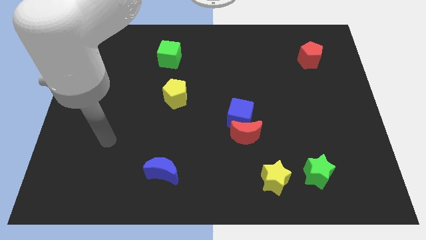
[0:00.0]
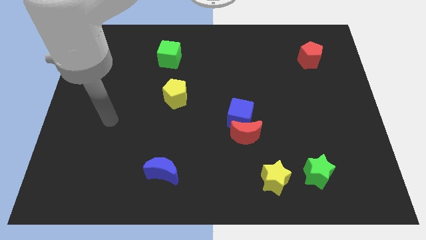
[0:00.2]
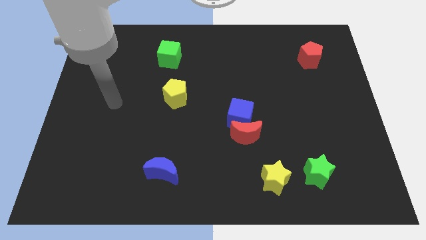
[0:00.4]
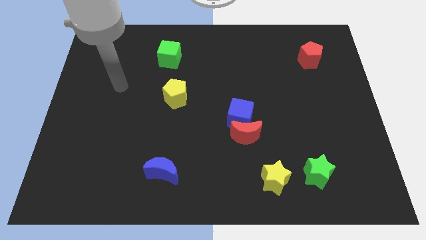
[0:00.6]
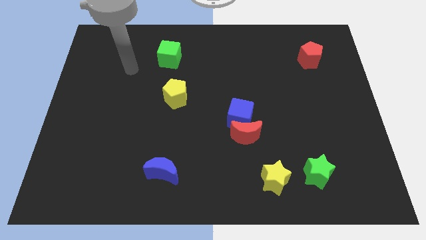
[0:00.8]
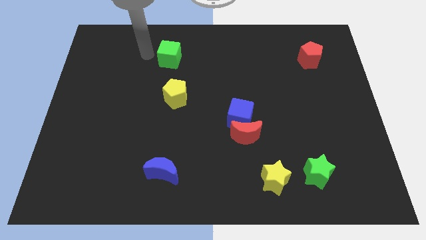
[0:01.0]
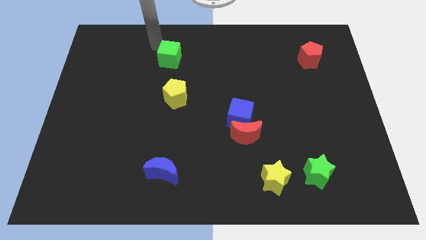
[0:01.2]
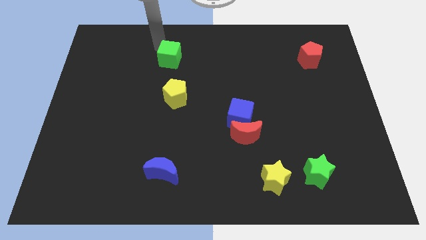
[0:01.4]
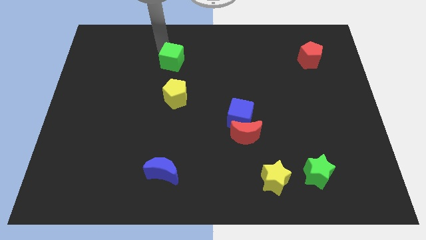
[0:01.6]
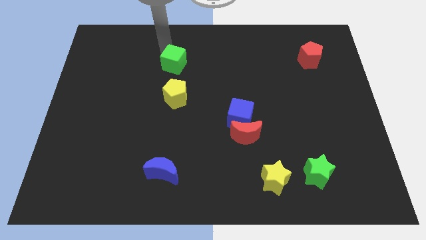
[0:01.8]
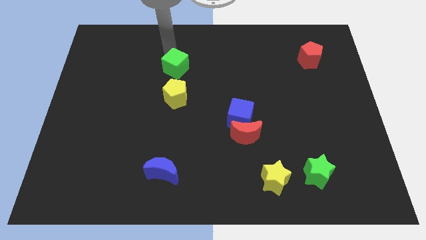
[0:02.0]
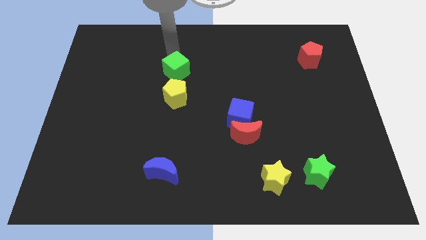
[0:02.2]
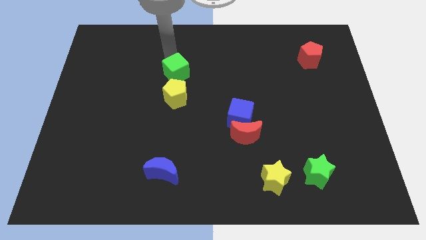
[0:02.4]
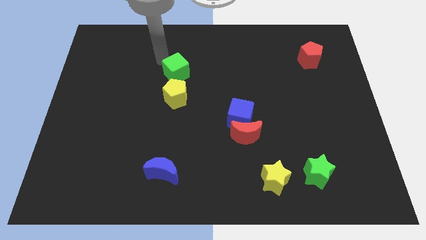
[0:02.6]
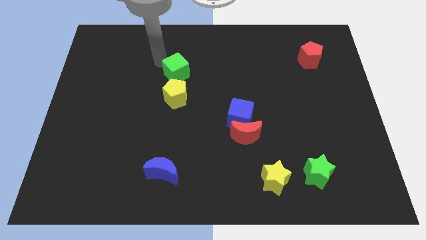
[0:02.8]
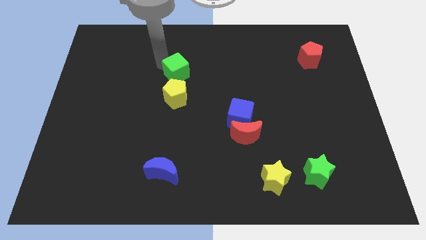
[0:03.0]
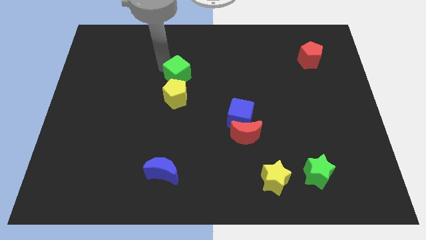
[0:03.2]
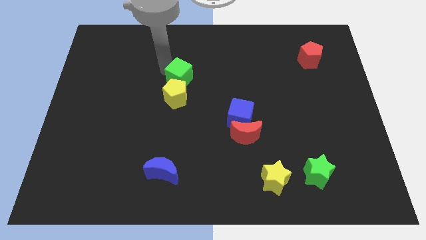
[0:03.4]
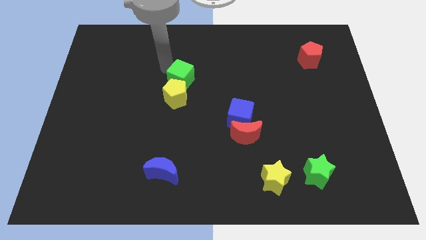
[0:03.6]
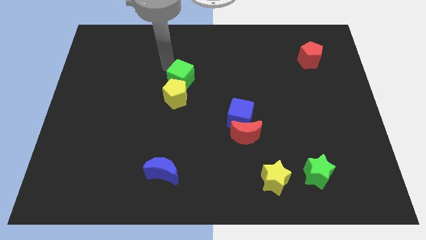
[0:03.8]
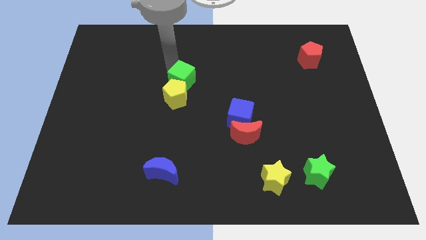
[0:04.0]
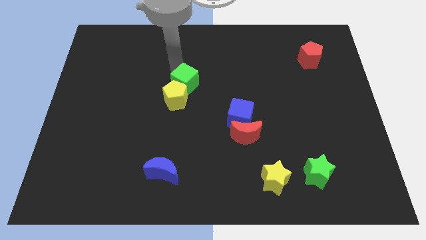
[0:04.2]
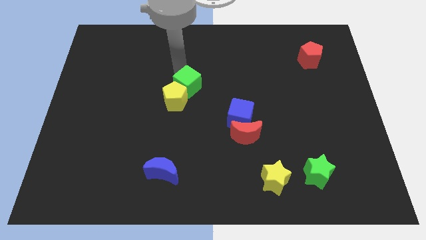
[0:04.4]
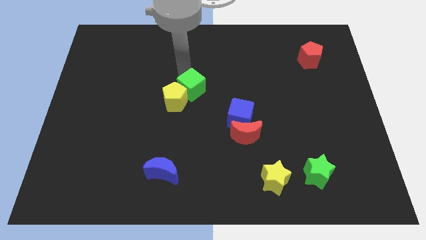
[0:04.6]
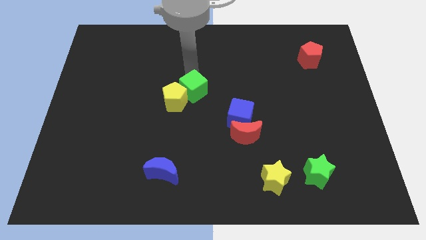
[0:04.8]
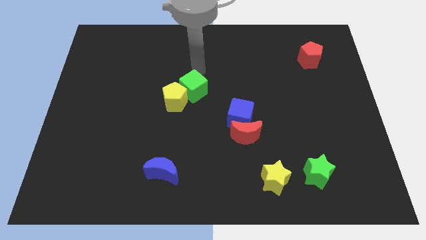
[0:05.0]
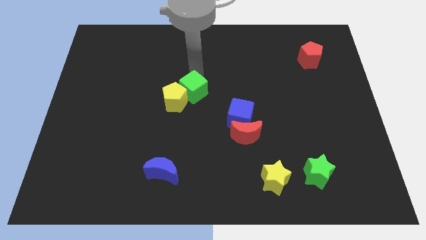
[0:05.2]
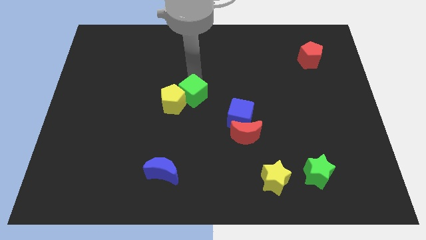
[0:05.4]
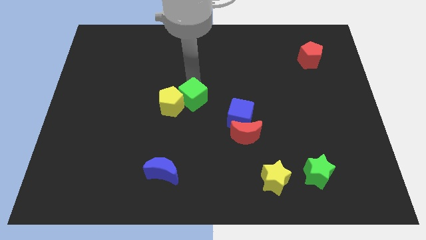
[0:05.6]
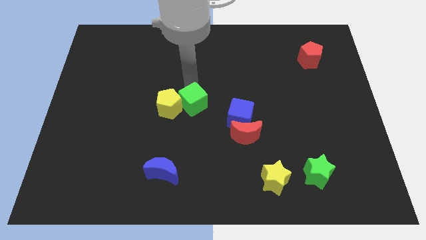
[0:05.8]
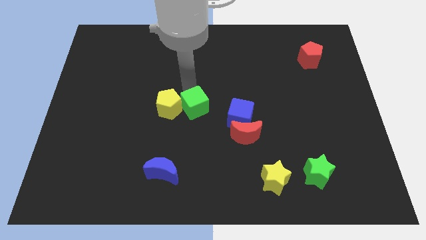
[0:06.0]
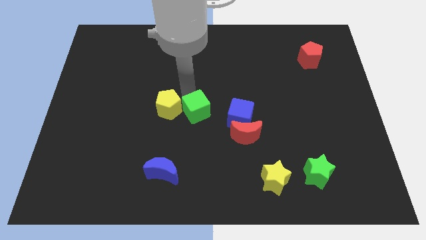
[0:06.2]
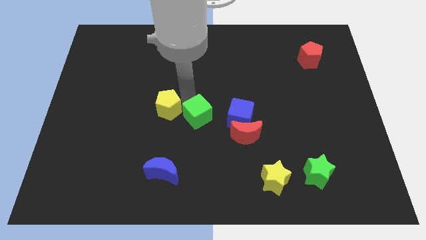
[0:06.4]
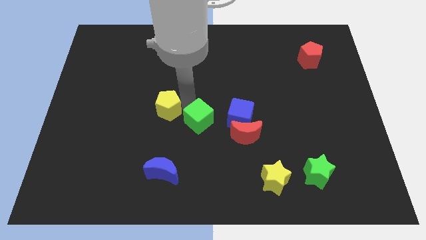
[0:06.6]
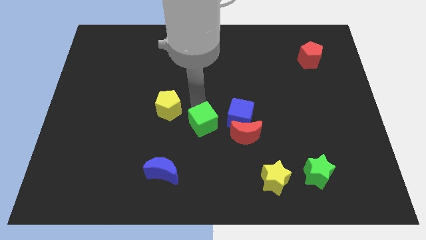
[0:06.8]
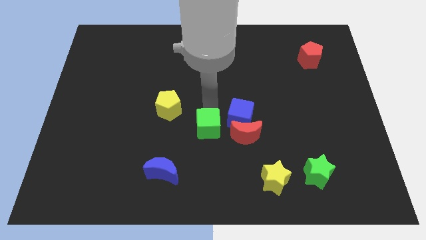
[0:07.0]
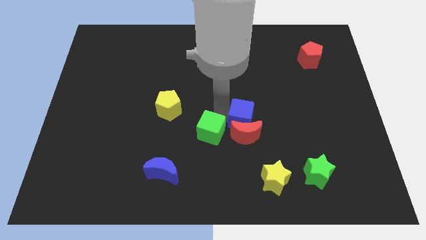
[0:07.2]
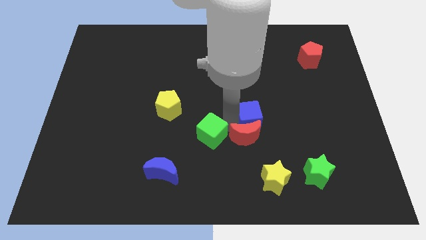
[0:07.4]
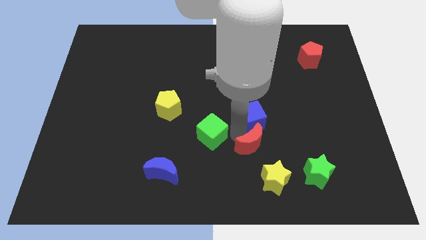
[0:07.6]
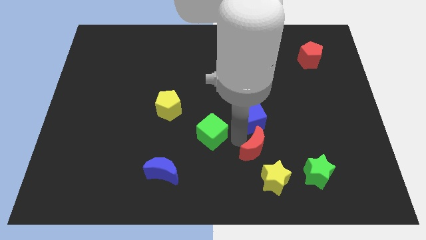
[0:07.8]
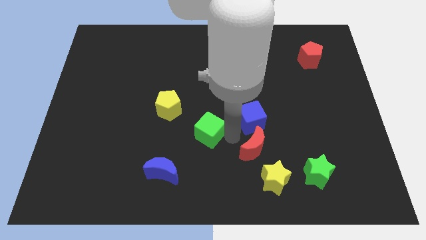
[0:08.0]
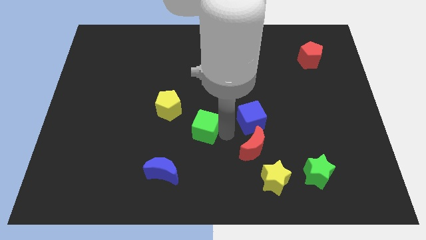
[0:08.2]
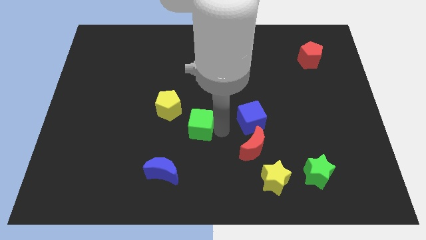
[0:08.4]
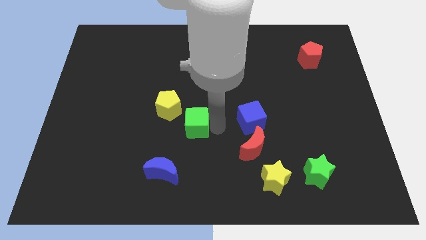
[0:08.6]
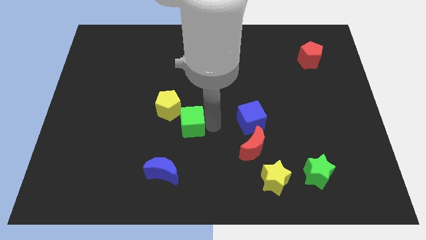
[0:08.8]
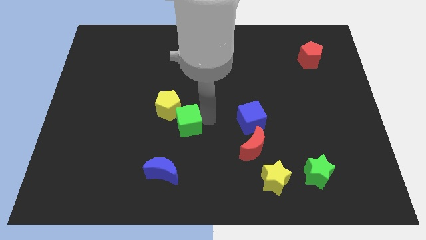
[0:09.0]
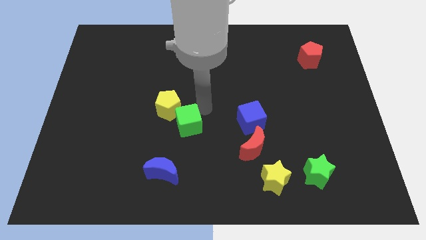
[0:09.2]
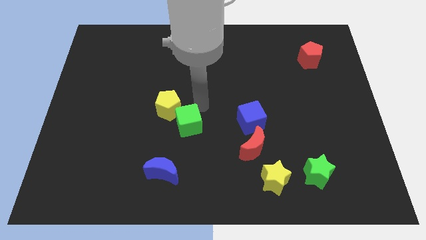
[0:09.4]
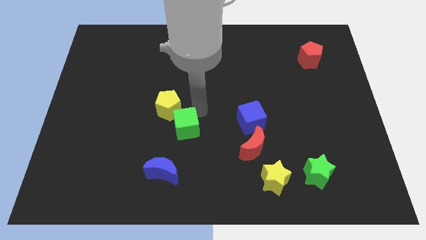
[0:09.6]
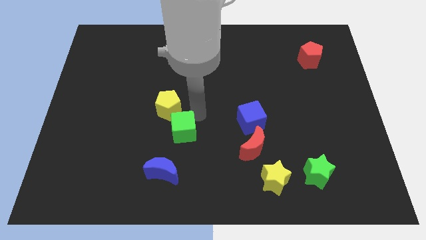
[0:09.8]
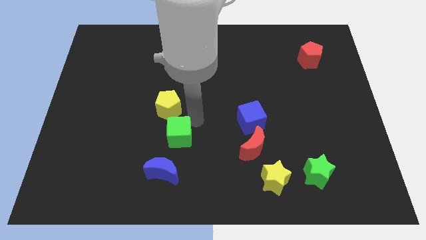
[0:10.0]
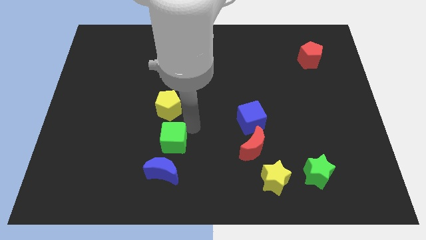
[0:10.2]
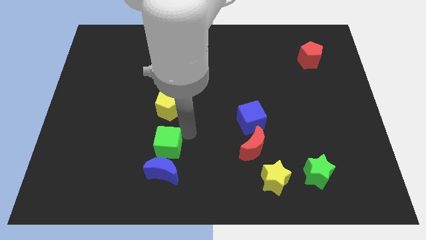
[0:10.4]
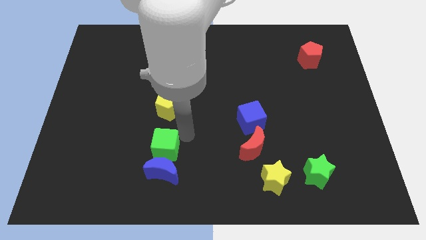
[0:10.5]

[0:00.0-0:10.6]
move the green cube towards the blue moon

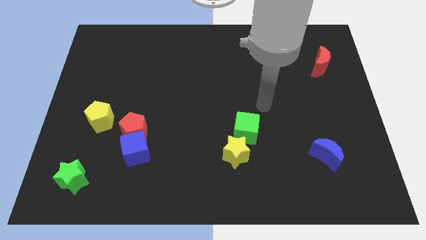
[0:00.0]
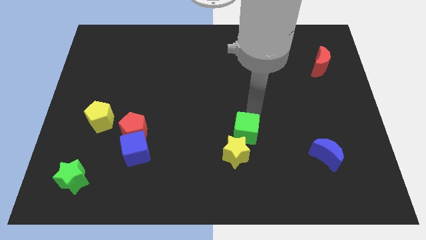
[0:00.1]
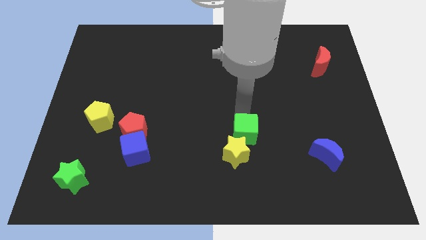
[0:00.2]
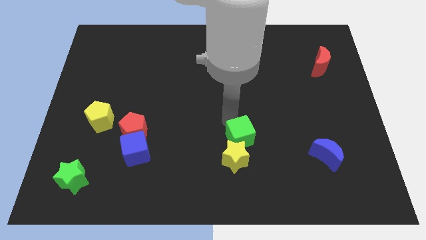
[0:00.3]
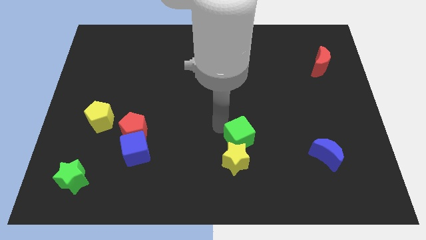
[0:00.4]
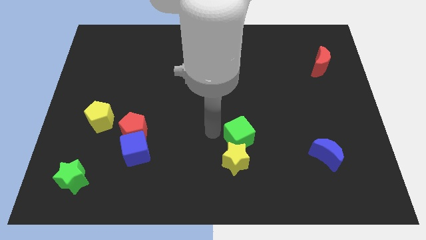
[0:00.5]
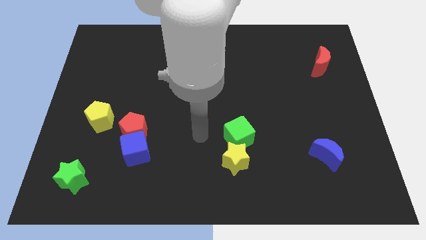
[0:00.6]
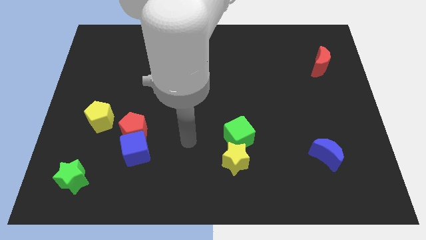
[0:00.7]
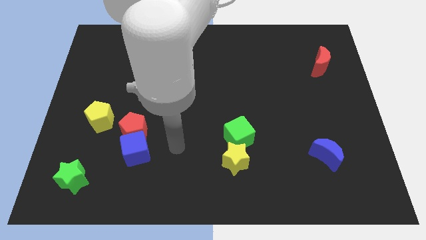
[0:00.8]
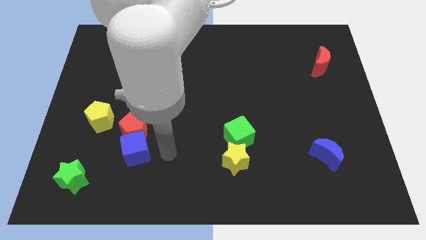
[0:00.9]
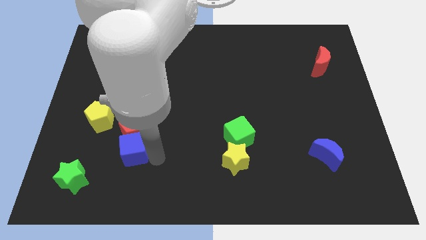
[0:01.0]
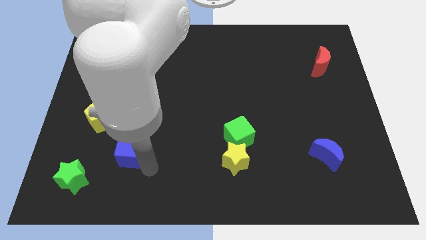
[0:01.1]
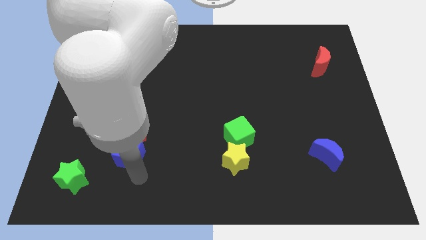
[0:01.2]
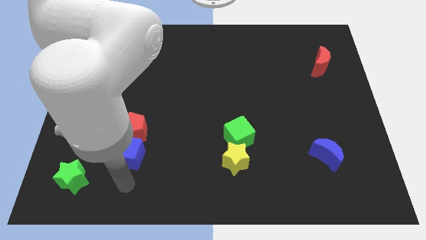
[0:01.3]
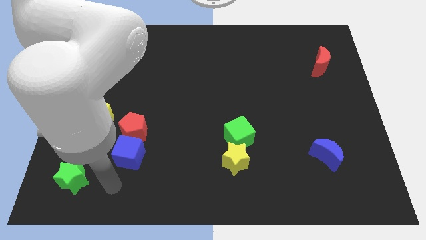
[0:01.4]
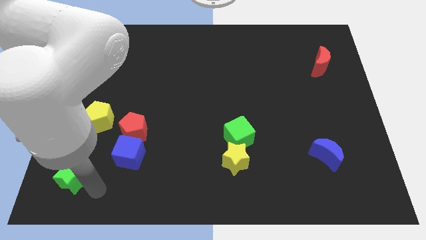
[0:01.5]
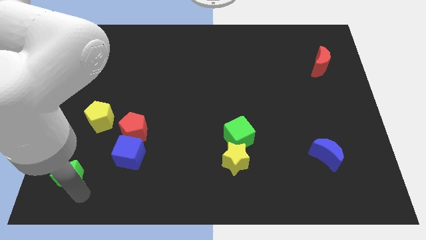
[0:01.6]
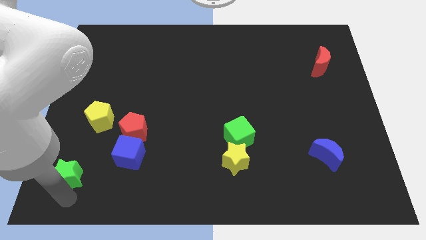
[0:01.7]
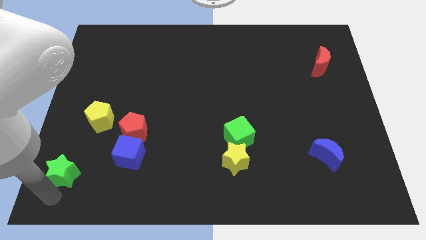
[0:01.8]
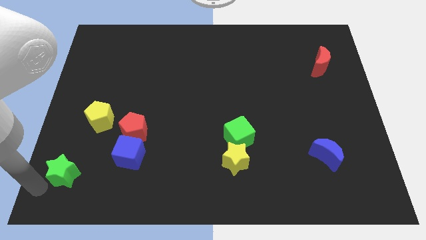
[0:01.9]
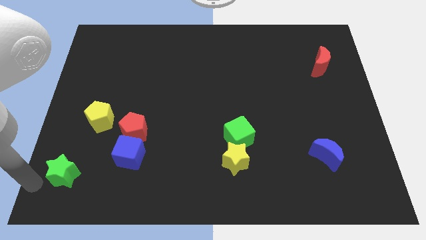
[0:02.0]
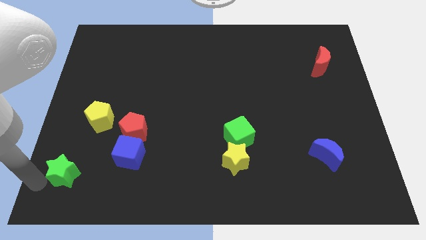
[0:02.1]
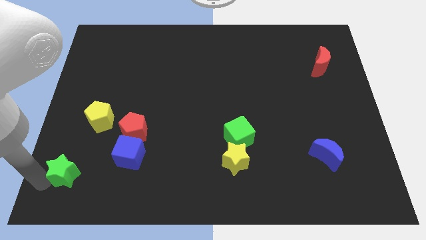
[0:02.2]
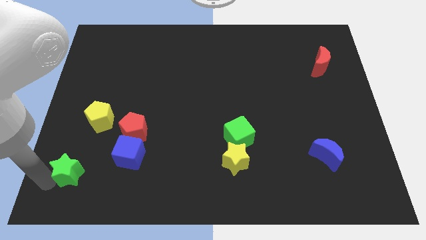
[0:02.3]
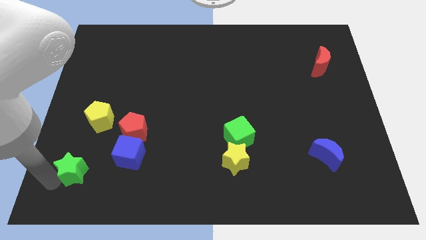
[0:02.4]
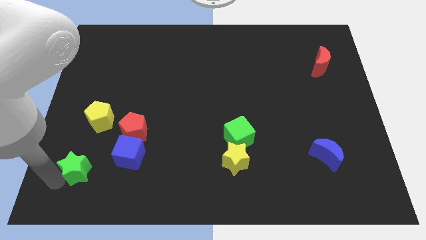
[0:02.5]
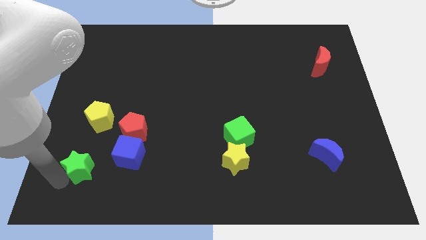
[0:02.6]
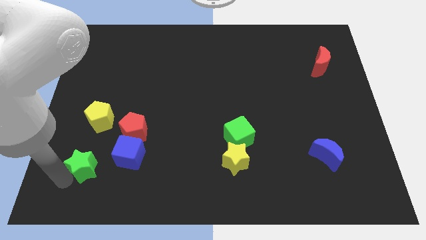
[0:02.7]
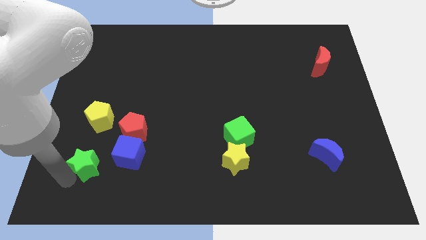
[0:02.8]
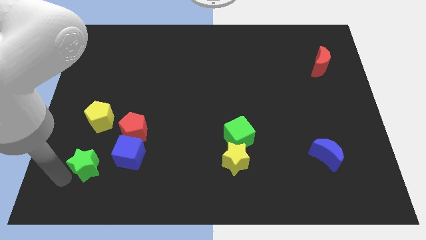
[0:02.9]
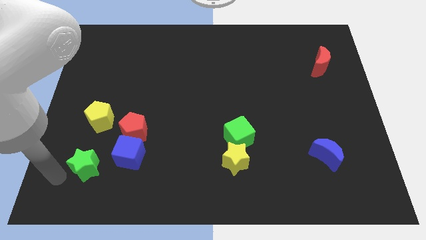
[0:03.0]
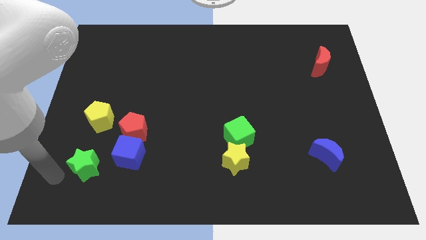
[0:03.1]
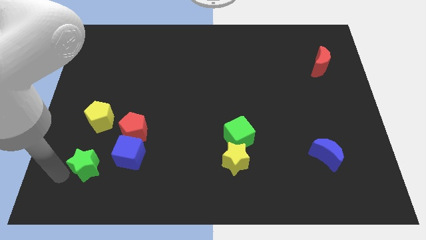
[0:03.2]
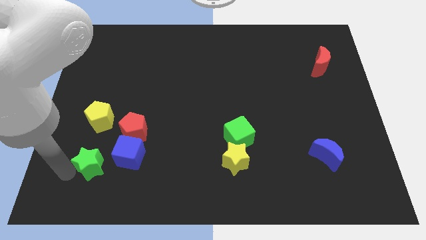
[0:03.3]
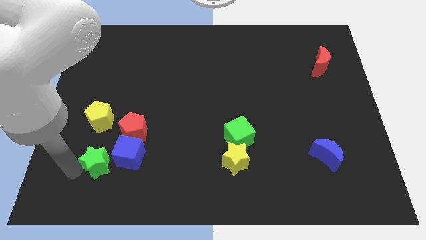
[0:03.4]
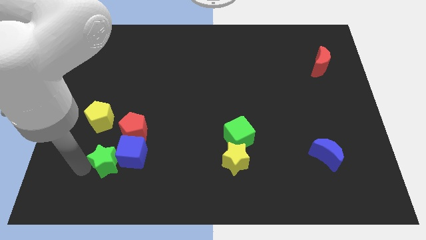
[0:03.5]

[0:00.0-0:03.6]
put the green star towards the blue cube
